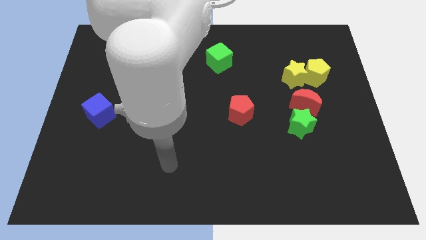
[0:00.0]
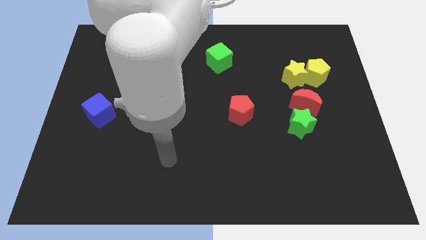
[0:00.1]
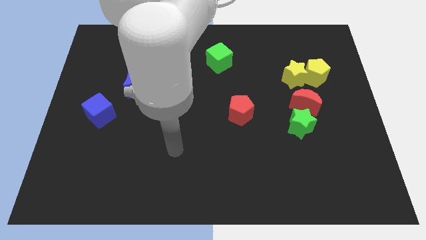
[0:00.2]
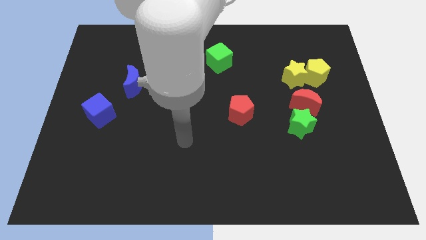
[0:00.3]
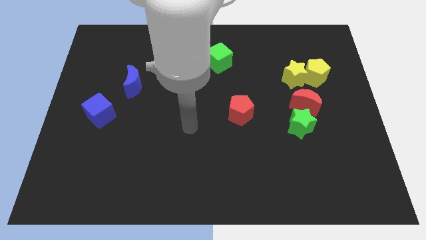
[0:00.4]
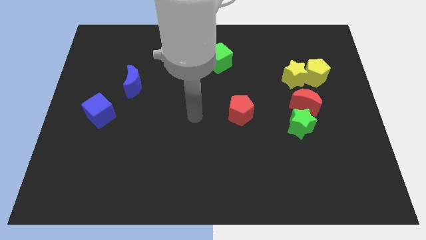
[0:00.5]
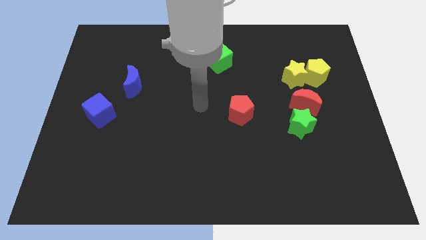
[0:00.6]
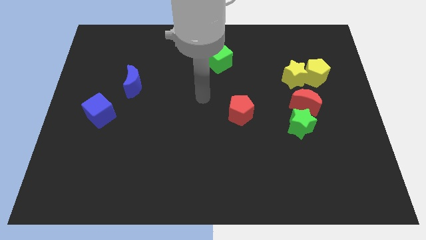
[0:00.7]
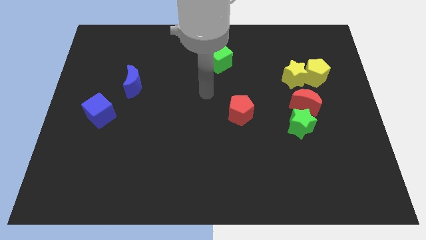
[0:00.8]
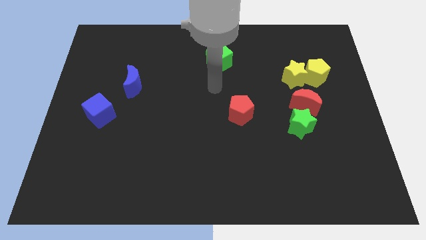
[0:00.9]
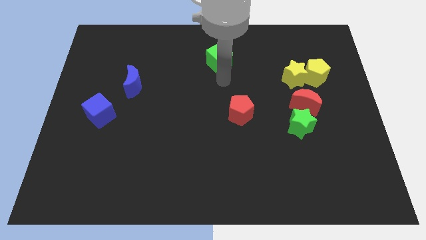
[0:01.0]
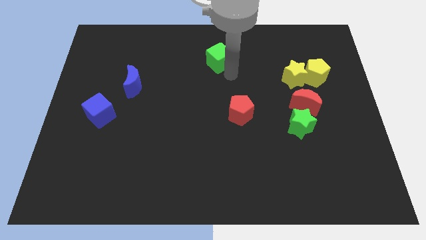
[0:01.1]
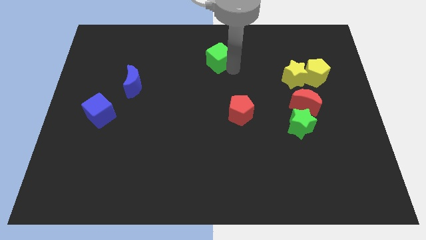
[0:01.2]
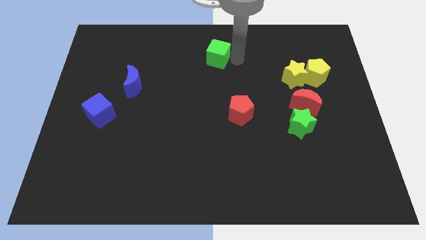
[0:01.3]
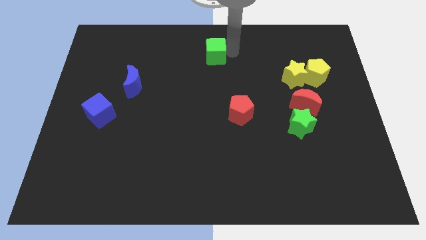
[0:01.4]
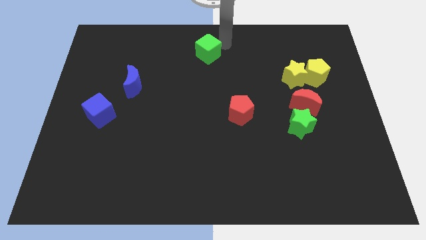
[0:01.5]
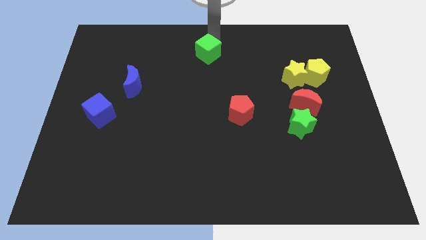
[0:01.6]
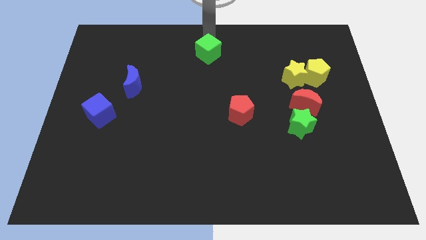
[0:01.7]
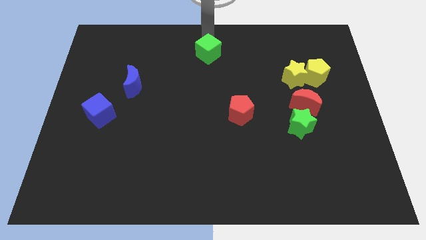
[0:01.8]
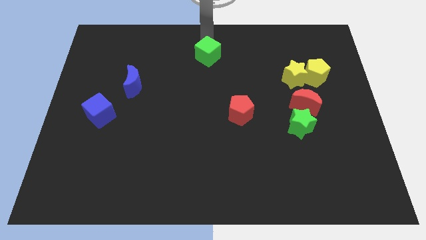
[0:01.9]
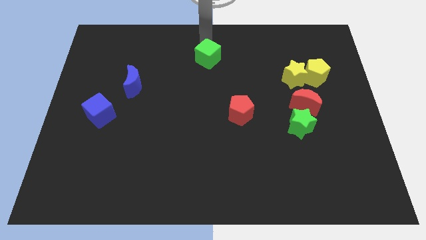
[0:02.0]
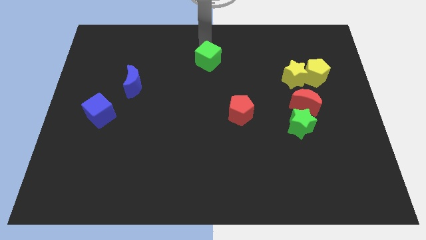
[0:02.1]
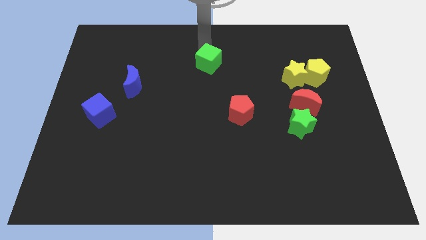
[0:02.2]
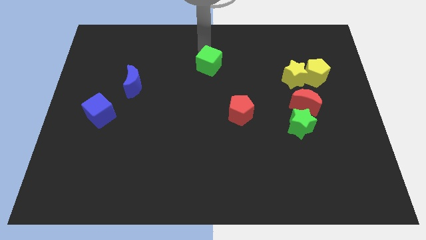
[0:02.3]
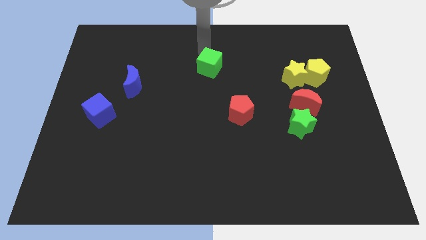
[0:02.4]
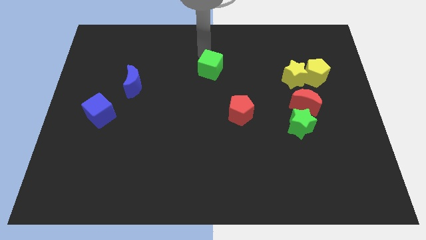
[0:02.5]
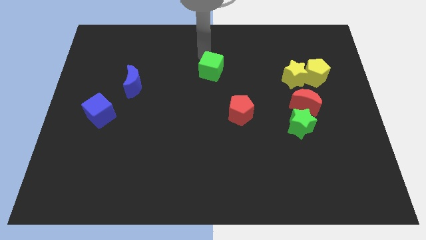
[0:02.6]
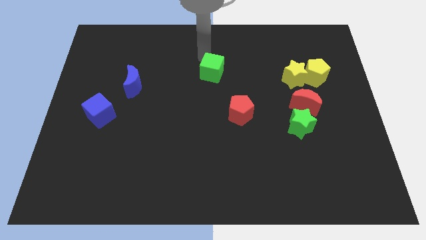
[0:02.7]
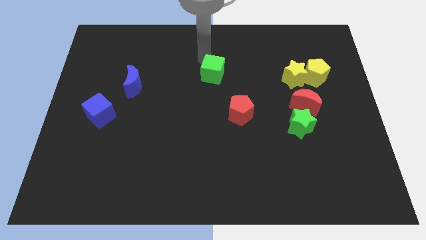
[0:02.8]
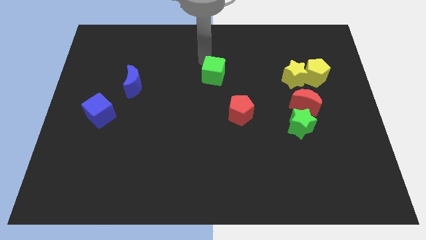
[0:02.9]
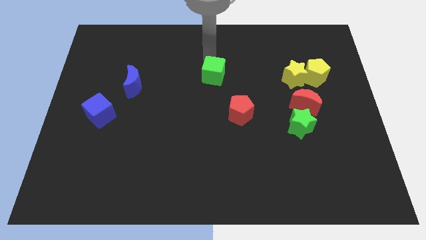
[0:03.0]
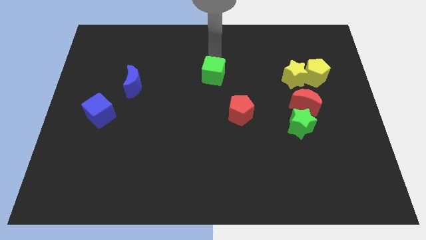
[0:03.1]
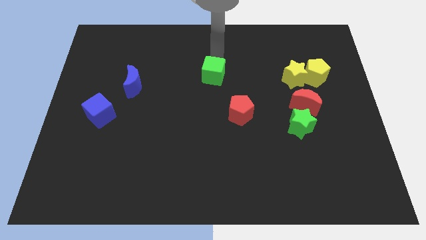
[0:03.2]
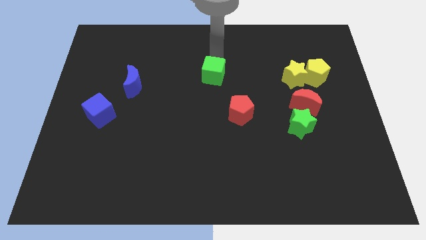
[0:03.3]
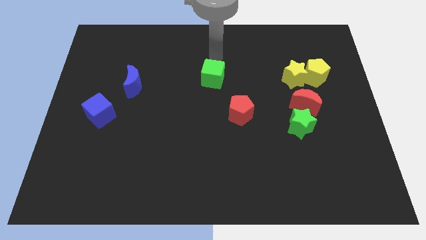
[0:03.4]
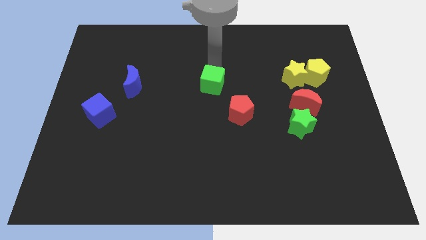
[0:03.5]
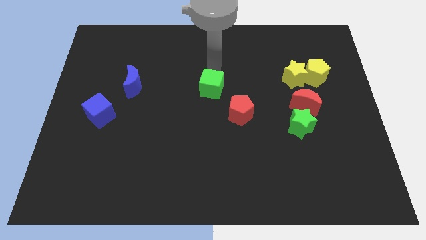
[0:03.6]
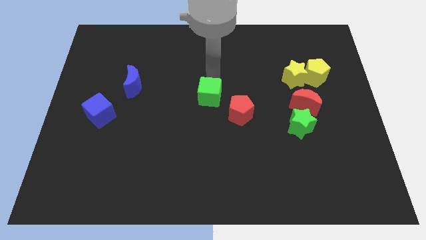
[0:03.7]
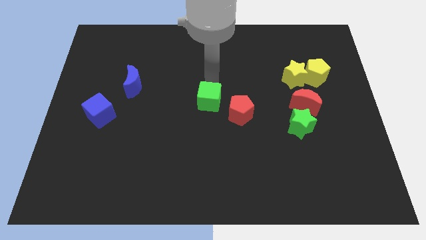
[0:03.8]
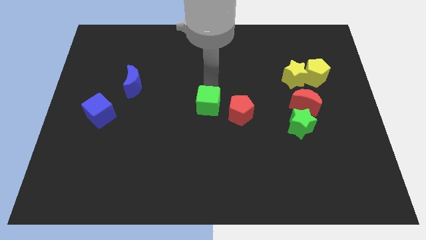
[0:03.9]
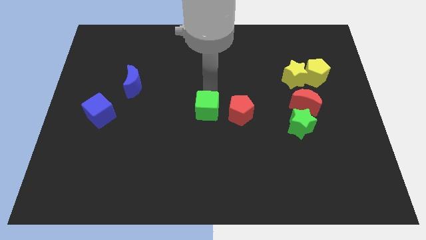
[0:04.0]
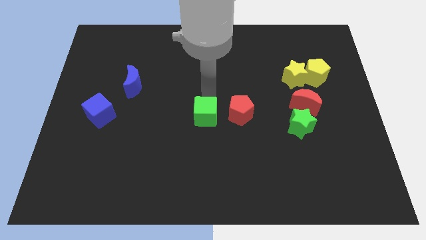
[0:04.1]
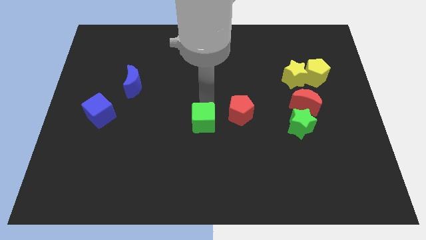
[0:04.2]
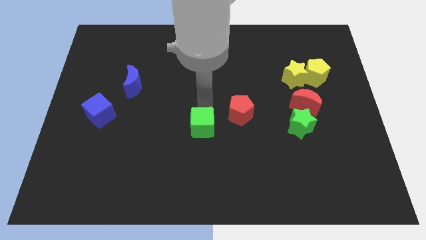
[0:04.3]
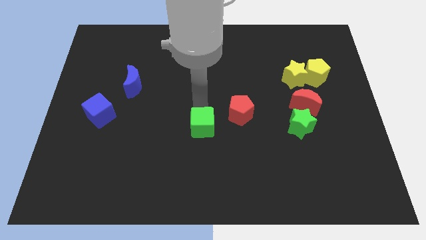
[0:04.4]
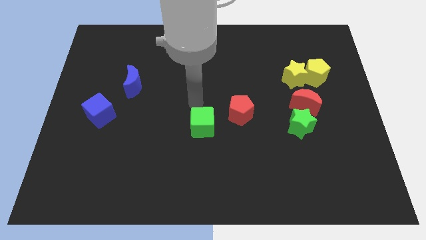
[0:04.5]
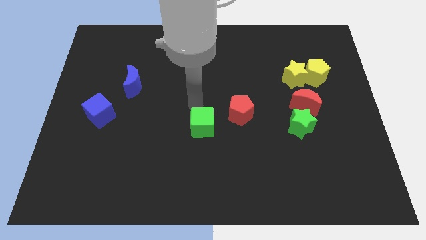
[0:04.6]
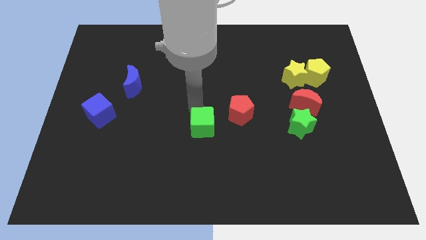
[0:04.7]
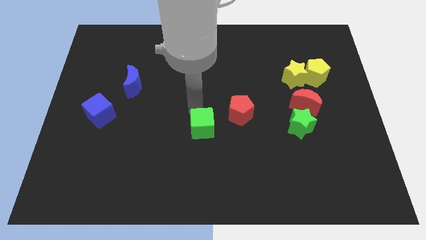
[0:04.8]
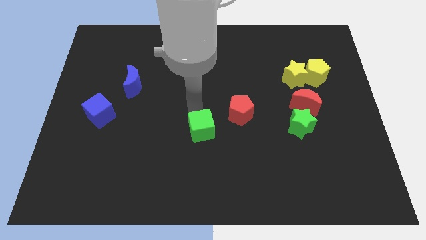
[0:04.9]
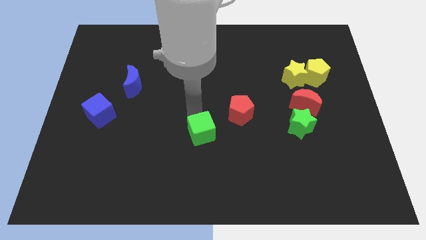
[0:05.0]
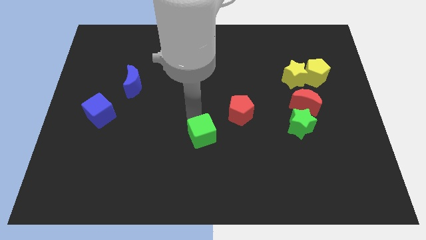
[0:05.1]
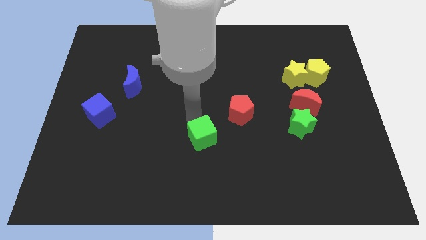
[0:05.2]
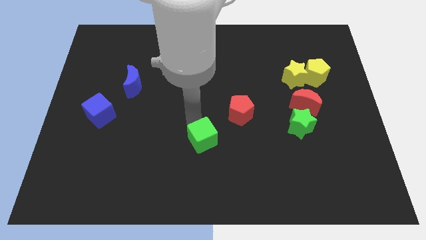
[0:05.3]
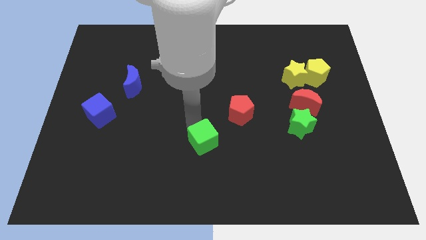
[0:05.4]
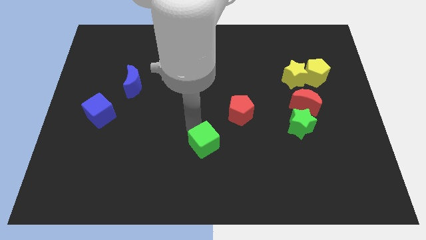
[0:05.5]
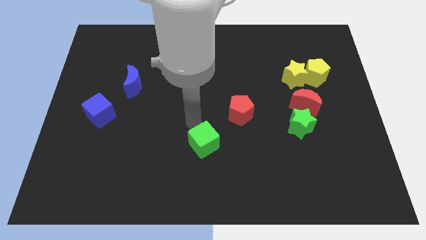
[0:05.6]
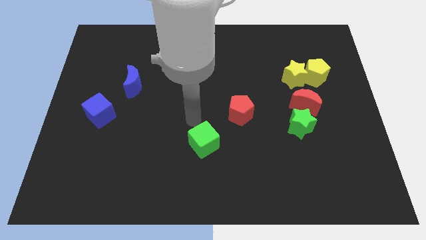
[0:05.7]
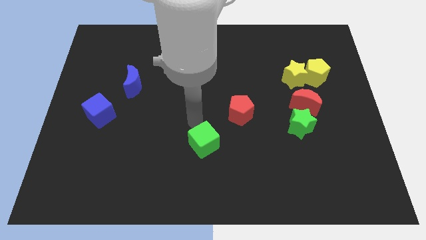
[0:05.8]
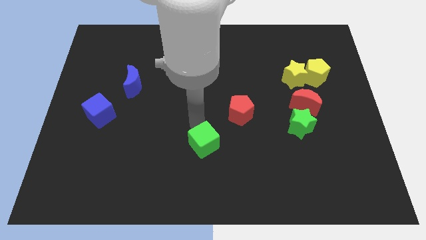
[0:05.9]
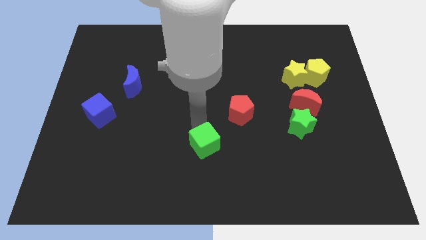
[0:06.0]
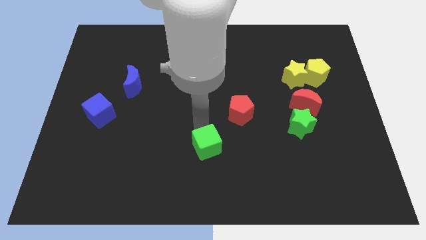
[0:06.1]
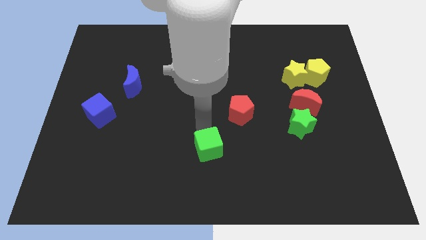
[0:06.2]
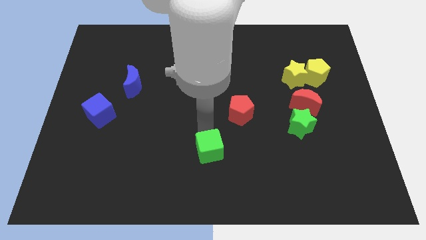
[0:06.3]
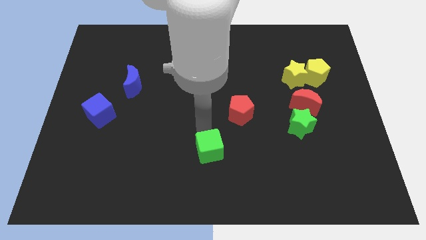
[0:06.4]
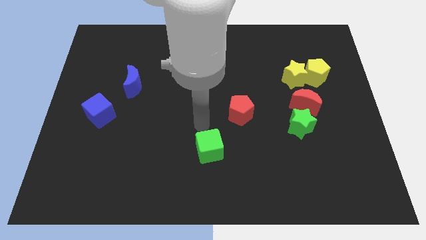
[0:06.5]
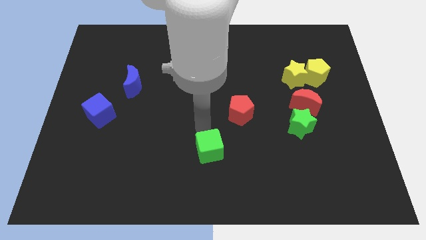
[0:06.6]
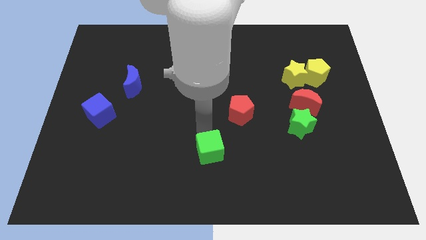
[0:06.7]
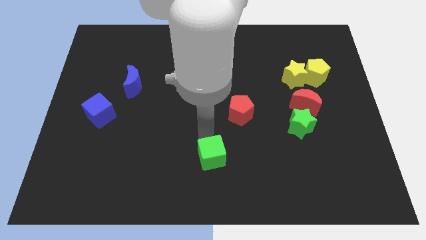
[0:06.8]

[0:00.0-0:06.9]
move the green cube to the bottom
